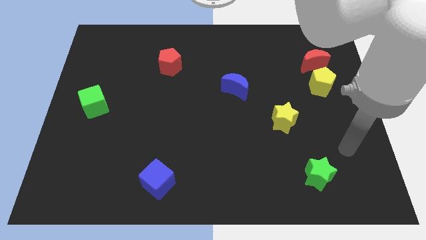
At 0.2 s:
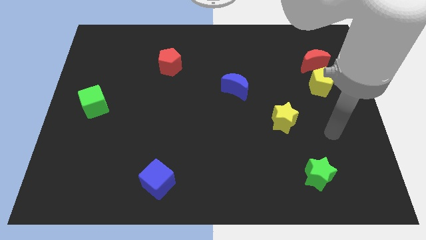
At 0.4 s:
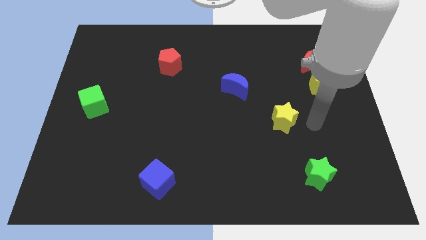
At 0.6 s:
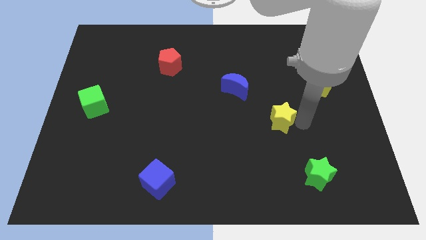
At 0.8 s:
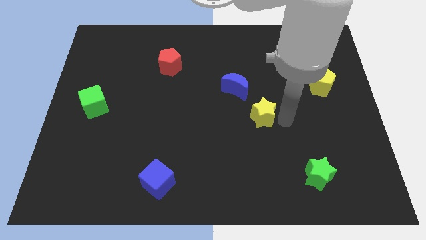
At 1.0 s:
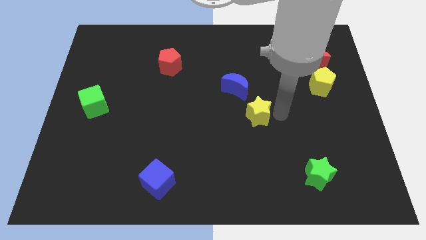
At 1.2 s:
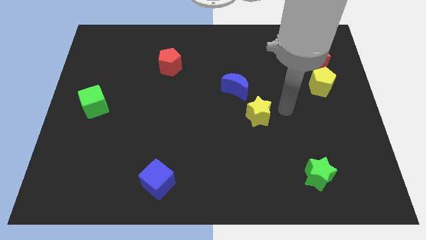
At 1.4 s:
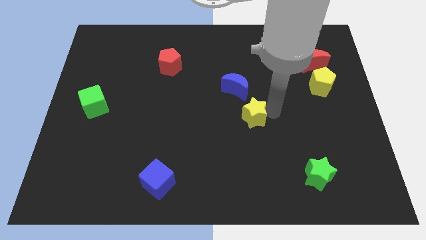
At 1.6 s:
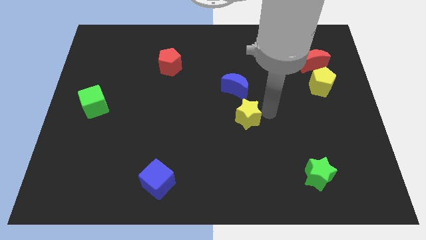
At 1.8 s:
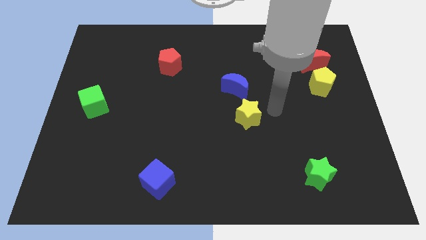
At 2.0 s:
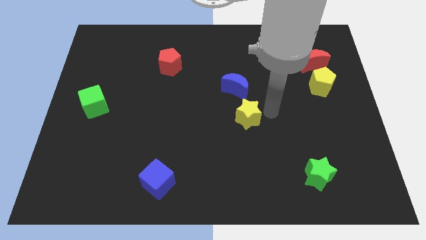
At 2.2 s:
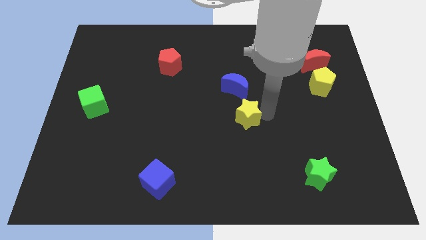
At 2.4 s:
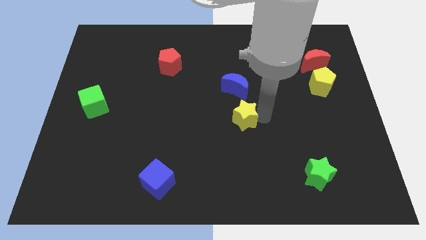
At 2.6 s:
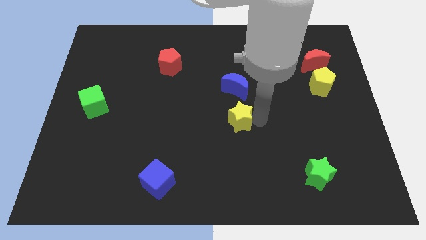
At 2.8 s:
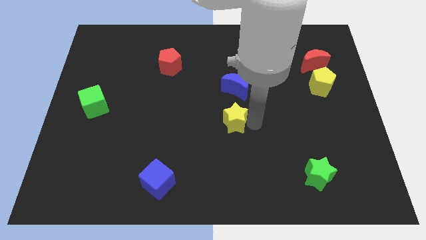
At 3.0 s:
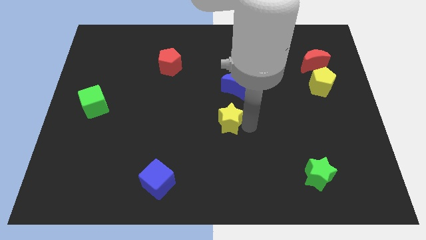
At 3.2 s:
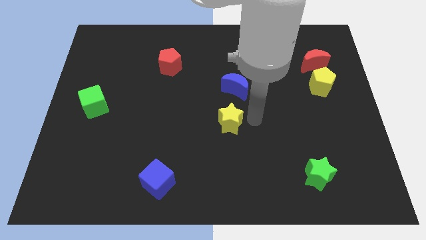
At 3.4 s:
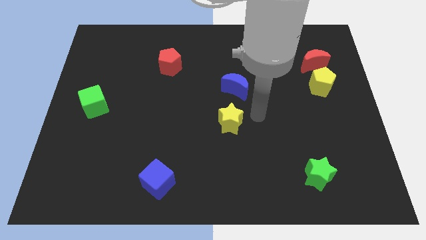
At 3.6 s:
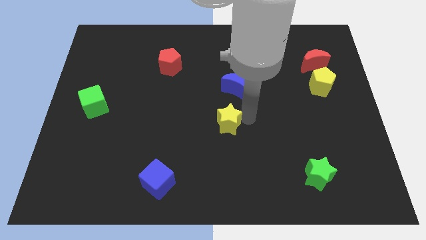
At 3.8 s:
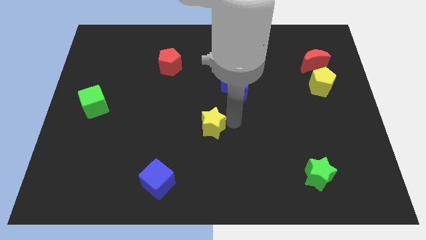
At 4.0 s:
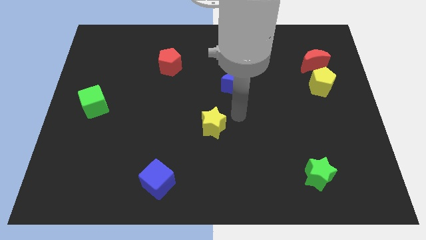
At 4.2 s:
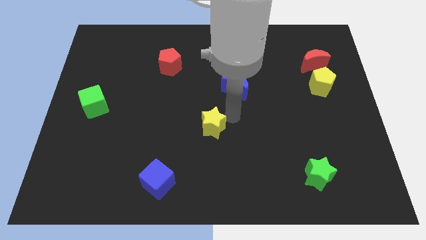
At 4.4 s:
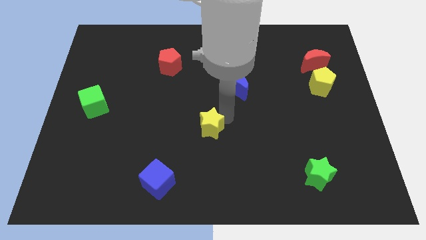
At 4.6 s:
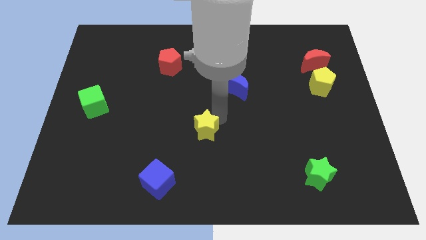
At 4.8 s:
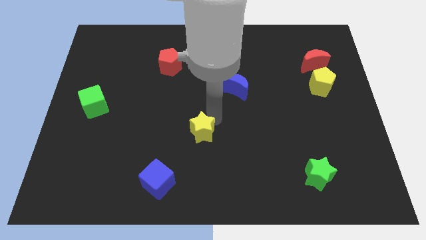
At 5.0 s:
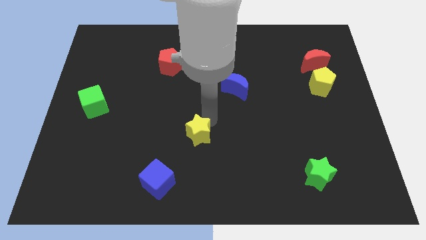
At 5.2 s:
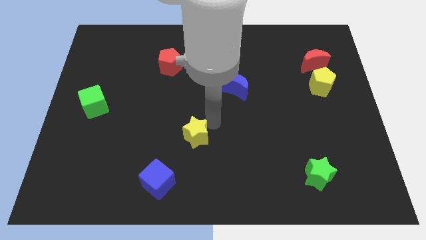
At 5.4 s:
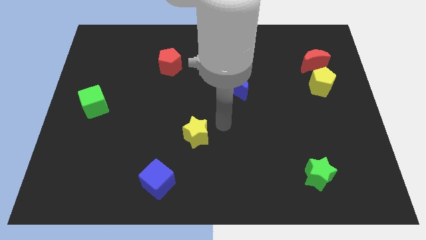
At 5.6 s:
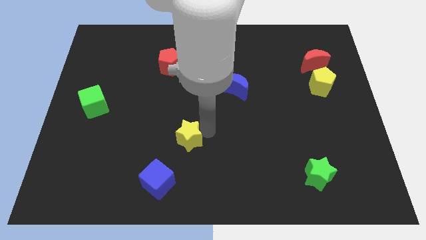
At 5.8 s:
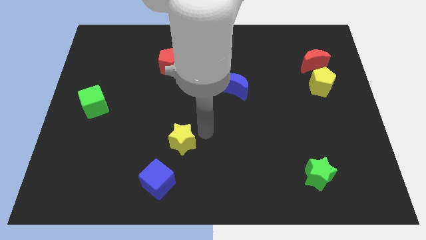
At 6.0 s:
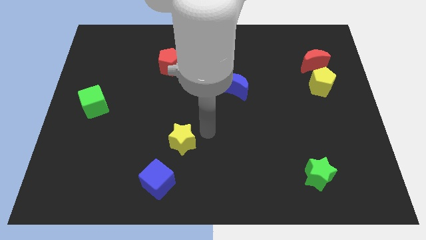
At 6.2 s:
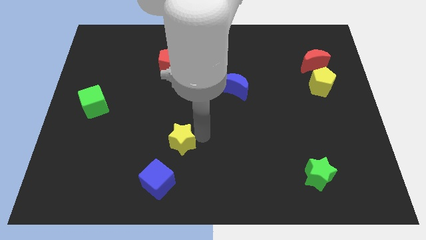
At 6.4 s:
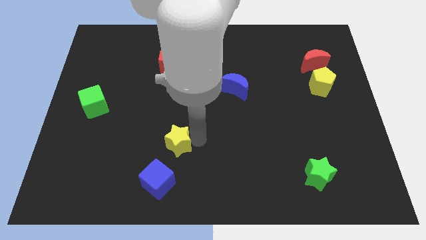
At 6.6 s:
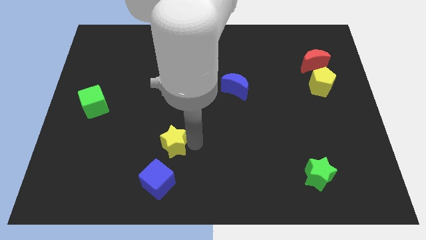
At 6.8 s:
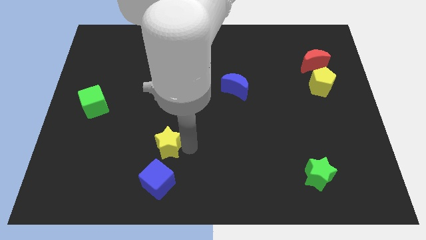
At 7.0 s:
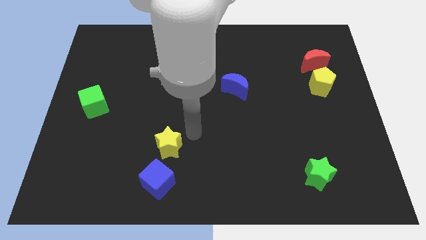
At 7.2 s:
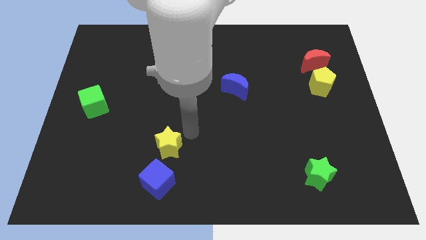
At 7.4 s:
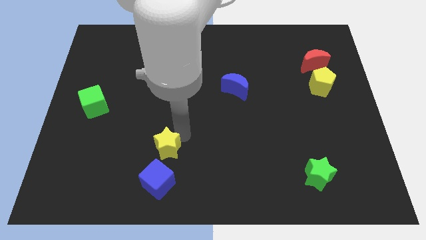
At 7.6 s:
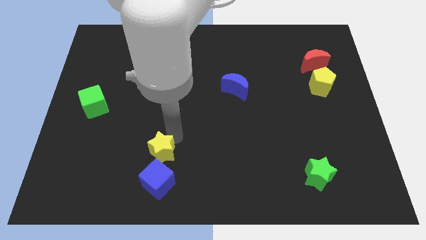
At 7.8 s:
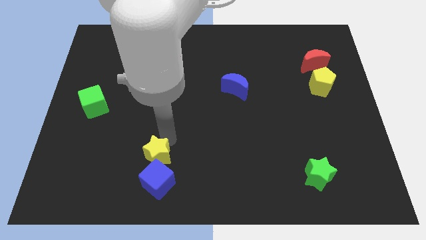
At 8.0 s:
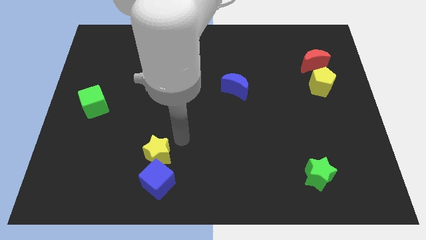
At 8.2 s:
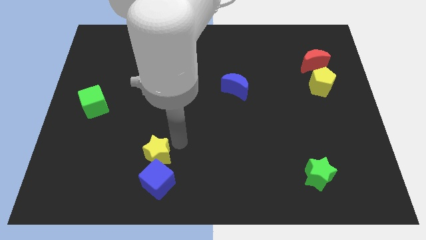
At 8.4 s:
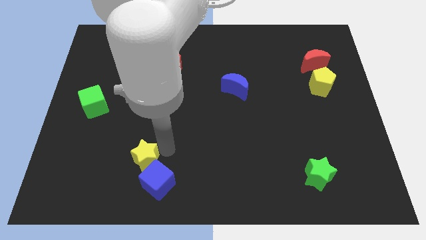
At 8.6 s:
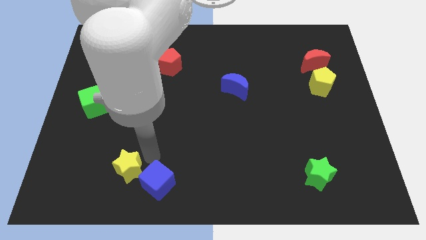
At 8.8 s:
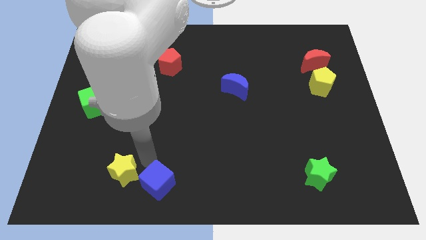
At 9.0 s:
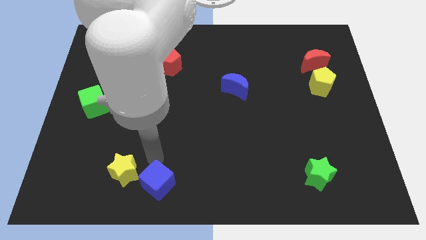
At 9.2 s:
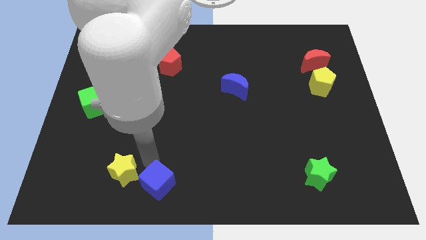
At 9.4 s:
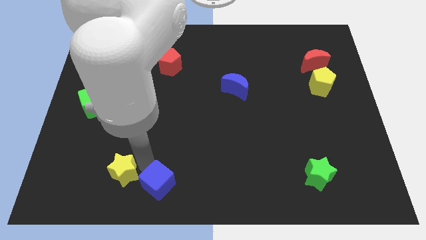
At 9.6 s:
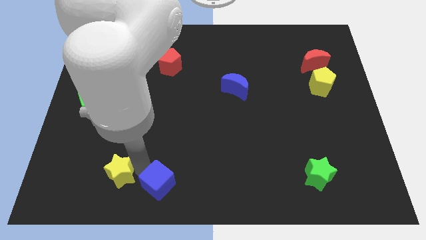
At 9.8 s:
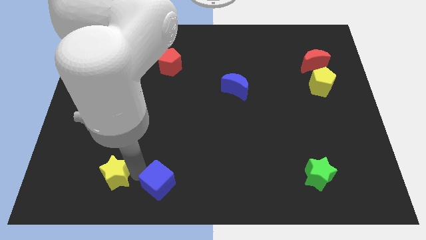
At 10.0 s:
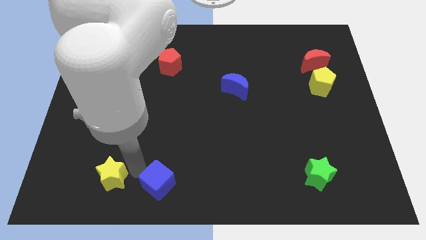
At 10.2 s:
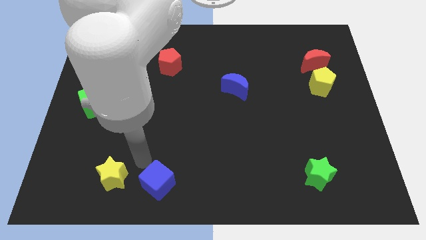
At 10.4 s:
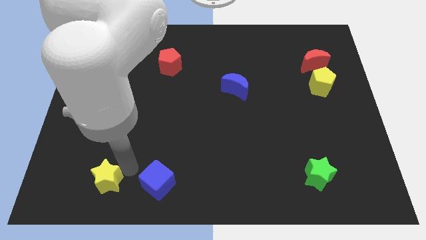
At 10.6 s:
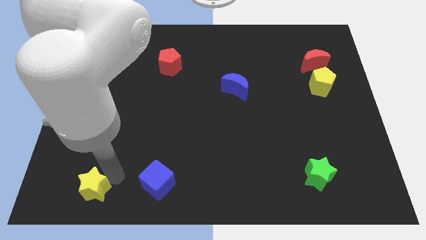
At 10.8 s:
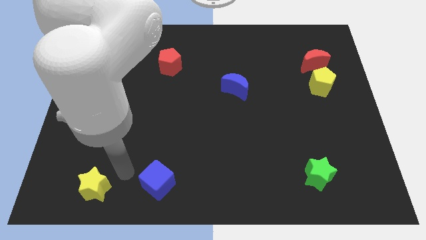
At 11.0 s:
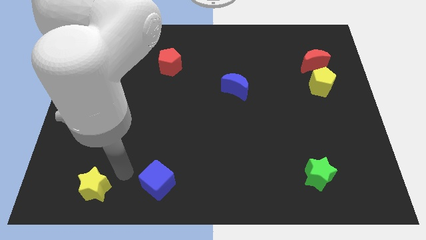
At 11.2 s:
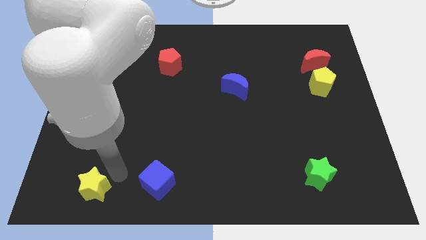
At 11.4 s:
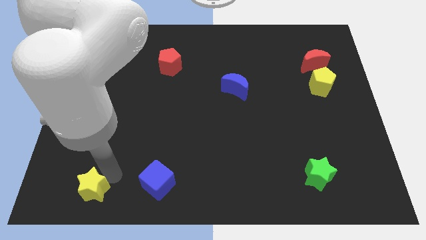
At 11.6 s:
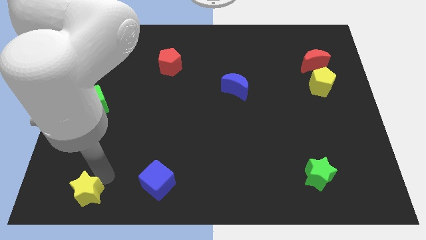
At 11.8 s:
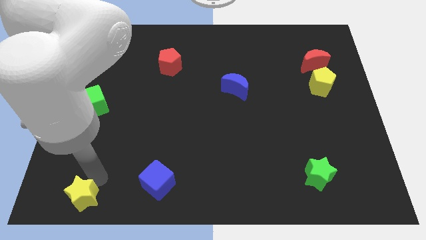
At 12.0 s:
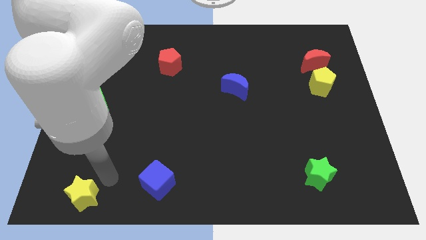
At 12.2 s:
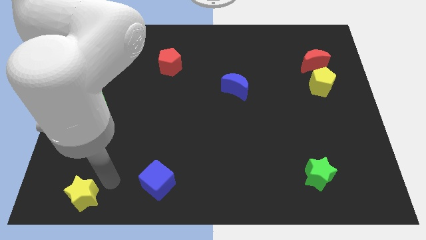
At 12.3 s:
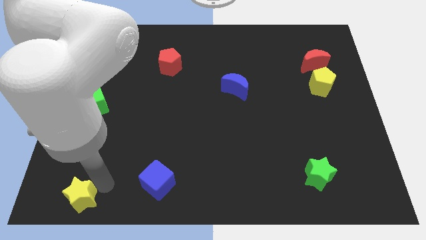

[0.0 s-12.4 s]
slide the yellow star to the bottom left corner
